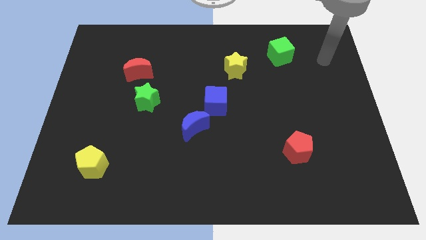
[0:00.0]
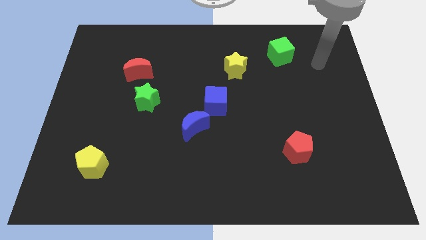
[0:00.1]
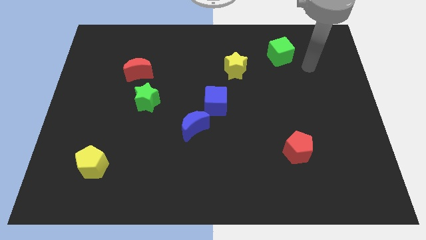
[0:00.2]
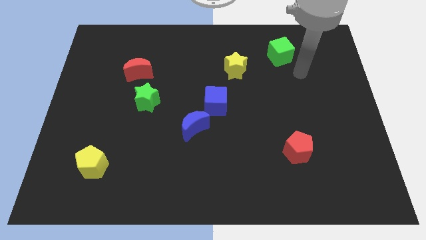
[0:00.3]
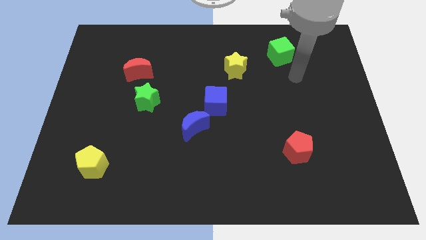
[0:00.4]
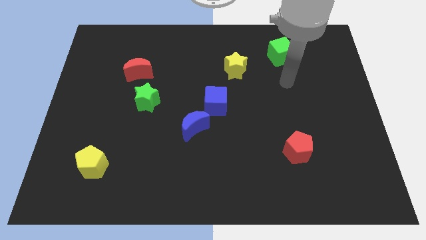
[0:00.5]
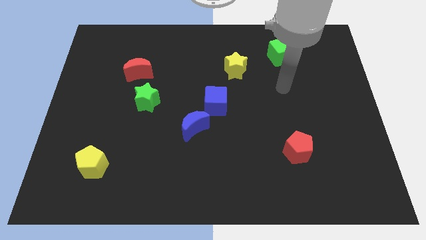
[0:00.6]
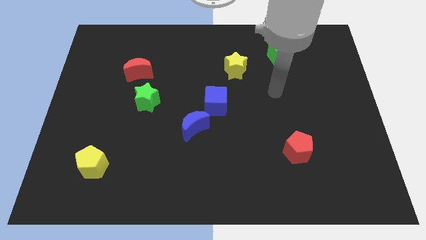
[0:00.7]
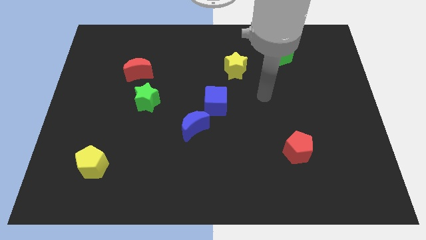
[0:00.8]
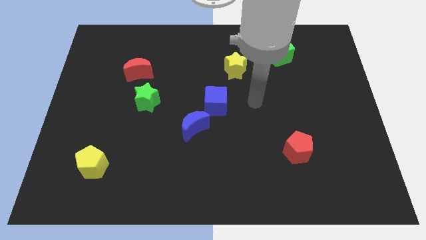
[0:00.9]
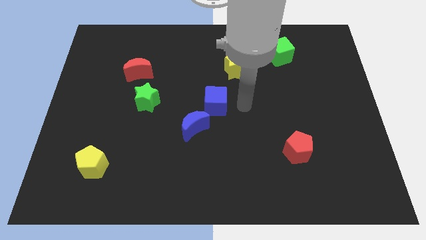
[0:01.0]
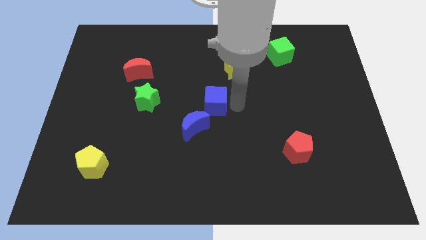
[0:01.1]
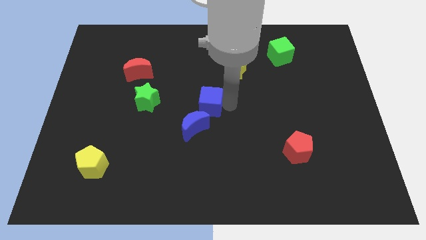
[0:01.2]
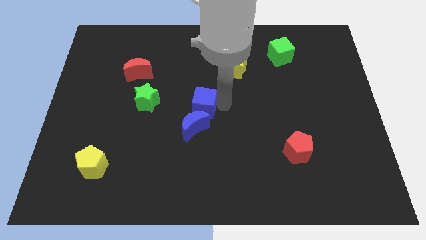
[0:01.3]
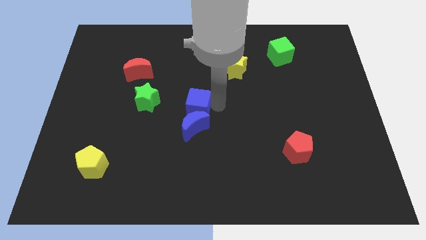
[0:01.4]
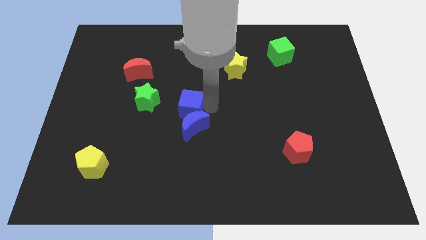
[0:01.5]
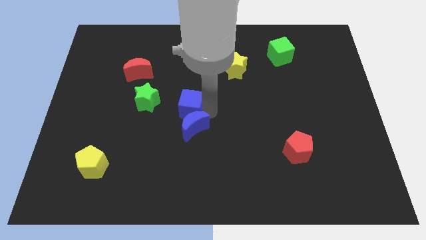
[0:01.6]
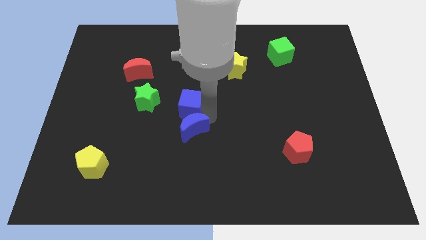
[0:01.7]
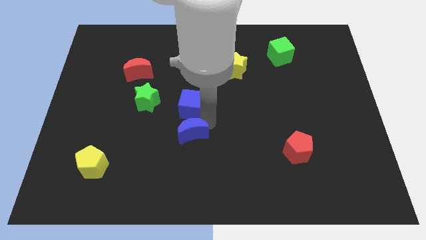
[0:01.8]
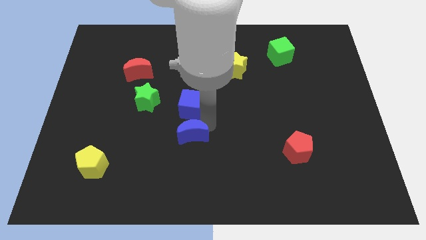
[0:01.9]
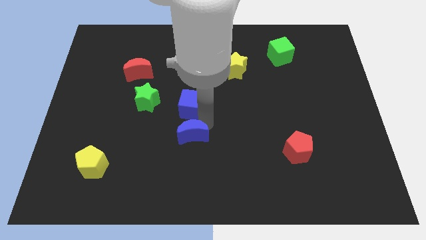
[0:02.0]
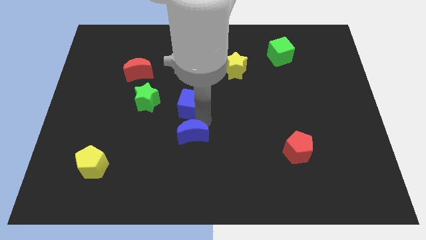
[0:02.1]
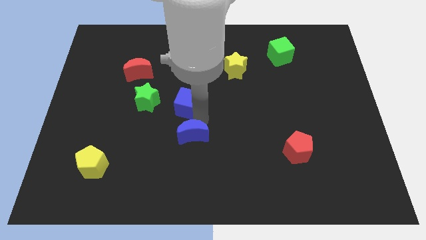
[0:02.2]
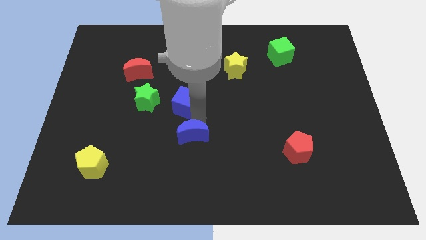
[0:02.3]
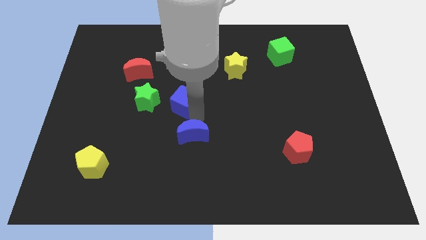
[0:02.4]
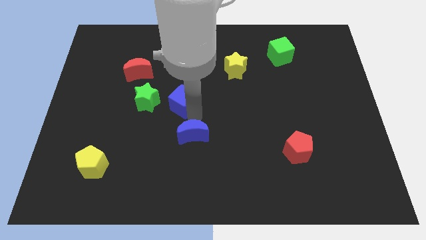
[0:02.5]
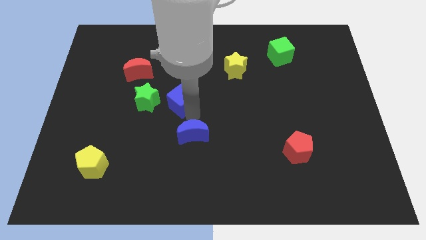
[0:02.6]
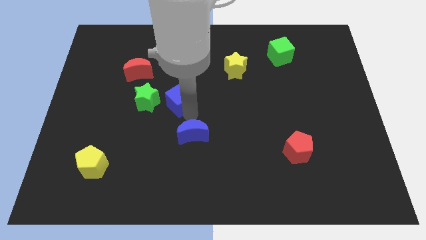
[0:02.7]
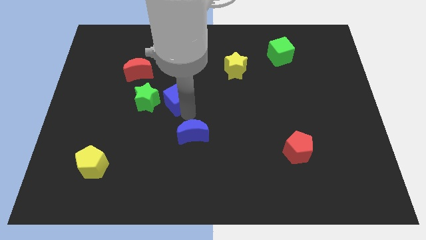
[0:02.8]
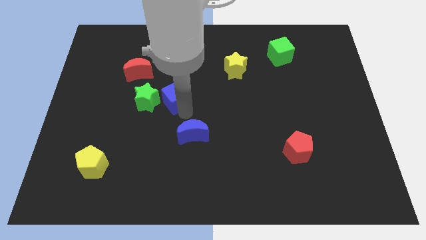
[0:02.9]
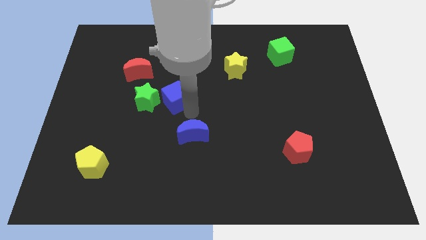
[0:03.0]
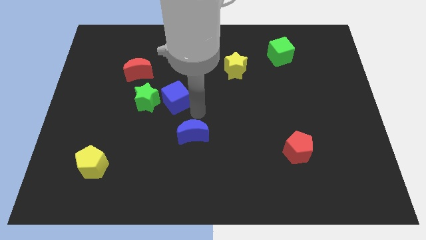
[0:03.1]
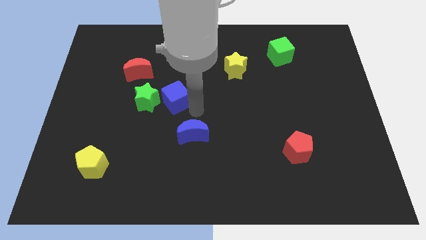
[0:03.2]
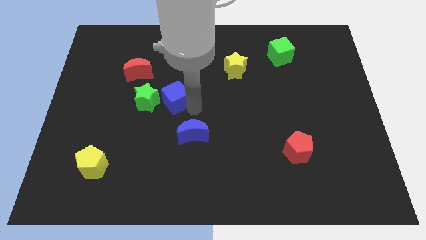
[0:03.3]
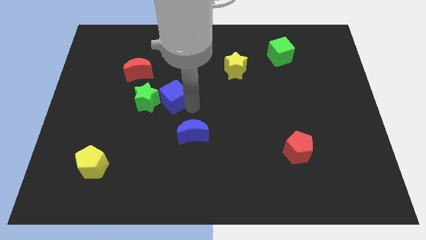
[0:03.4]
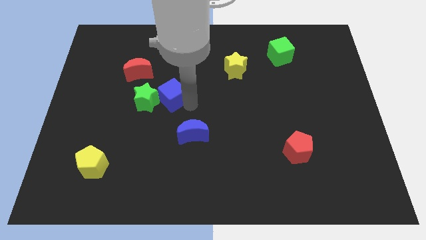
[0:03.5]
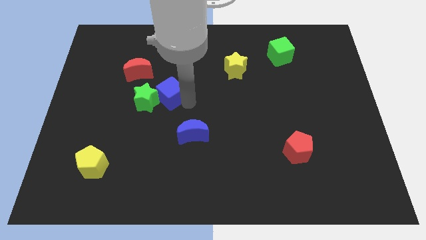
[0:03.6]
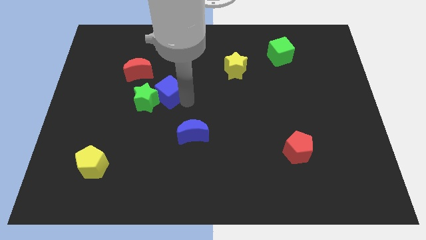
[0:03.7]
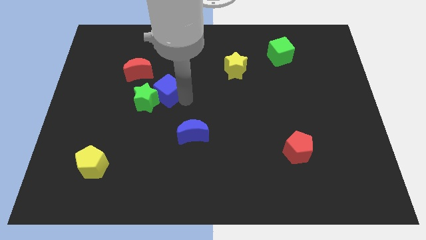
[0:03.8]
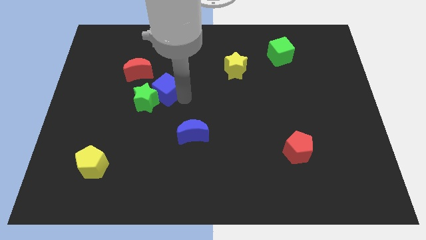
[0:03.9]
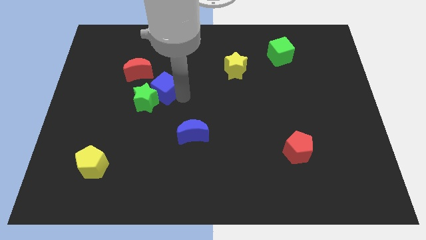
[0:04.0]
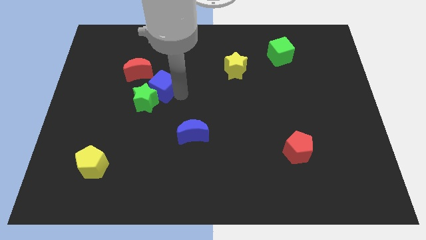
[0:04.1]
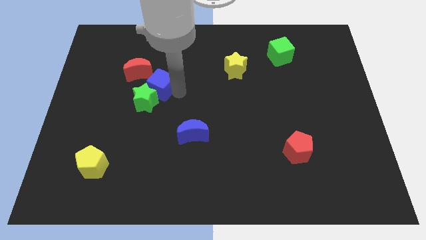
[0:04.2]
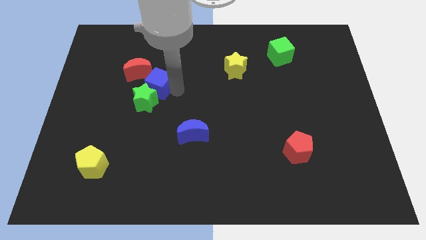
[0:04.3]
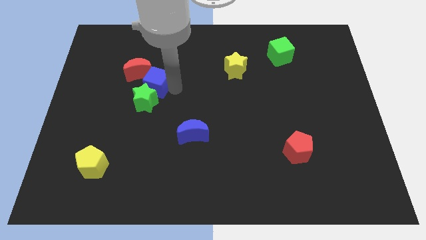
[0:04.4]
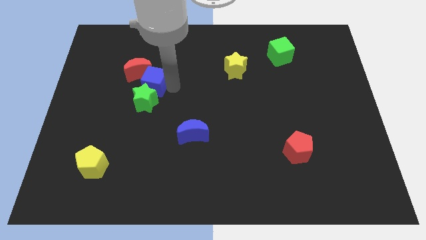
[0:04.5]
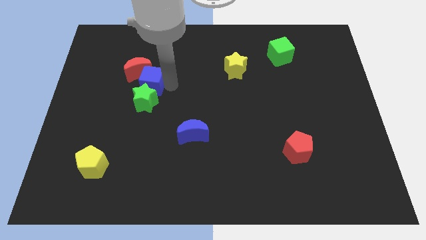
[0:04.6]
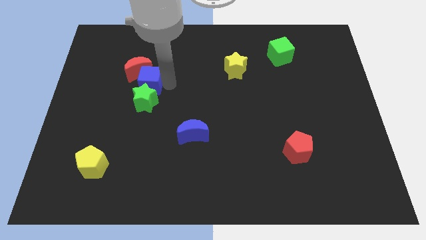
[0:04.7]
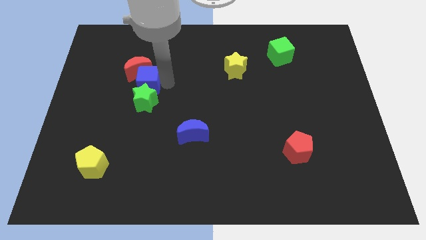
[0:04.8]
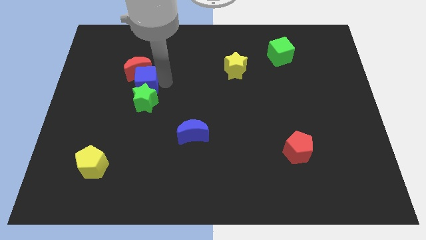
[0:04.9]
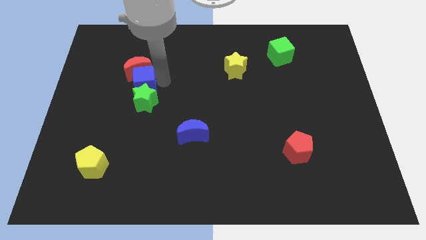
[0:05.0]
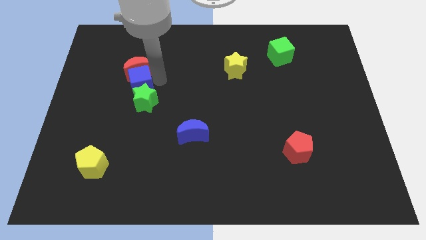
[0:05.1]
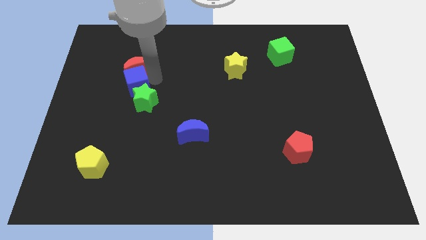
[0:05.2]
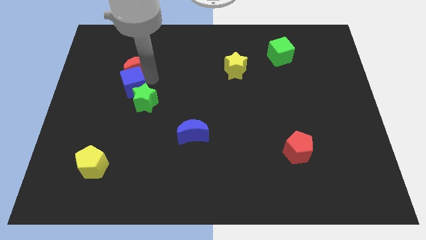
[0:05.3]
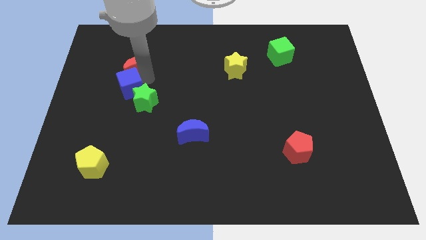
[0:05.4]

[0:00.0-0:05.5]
put the blue cube to the left side of the green star

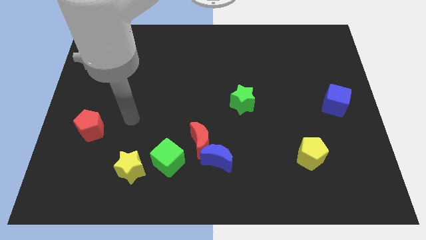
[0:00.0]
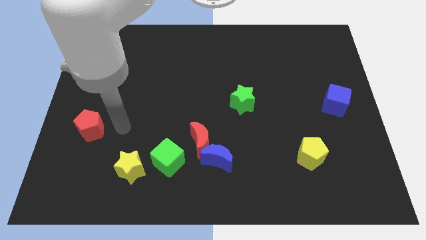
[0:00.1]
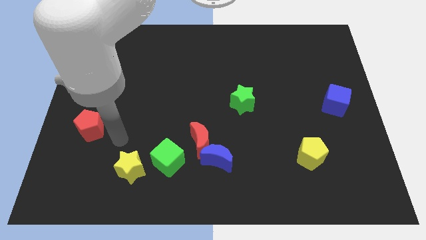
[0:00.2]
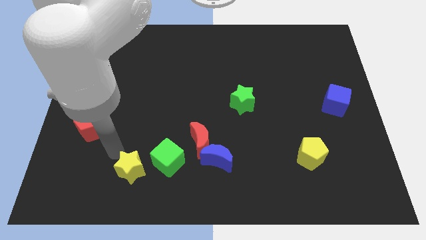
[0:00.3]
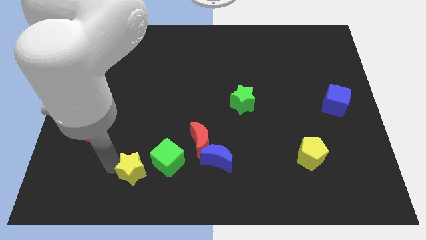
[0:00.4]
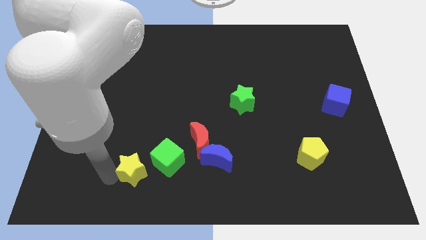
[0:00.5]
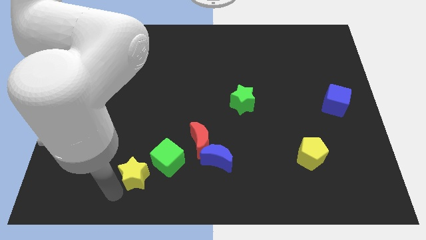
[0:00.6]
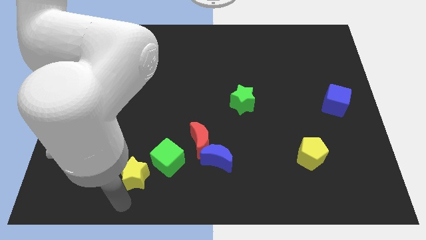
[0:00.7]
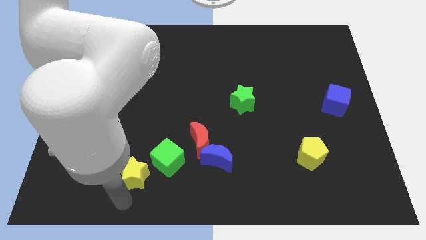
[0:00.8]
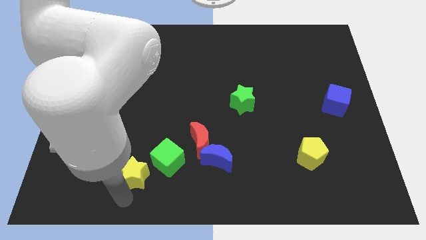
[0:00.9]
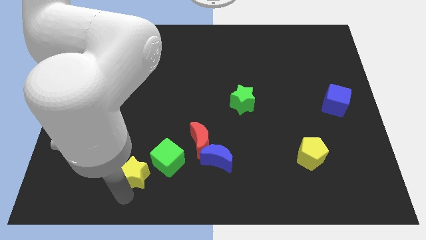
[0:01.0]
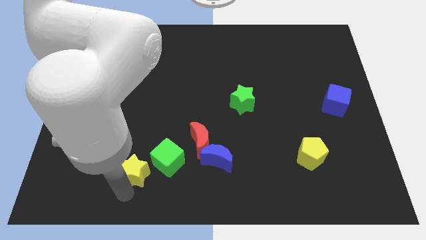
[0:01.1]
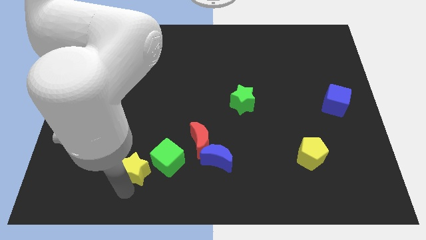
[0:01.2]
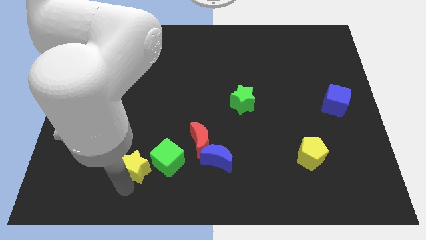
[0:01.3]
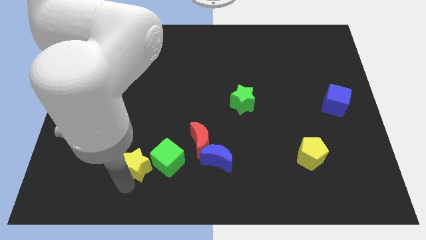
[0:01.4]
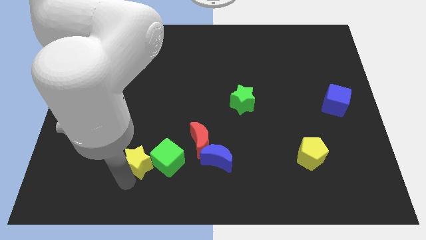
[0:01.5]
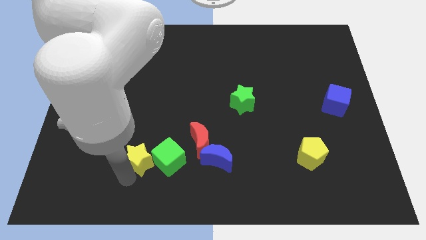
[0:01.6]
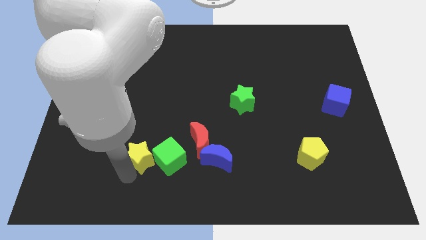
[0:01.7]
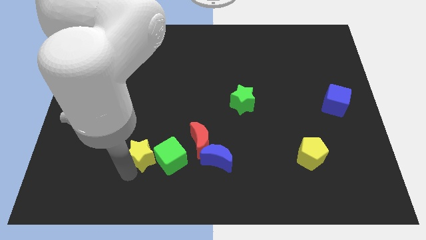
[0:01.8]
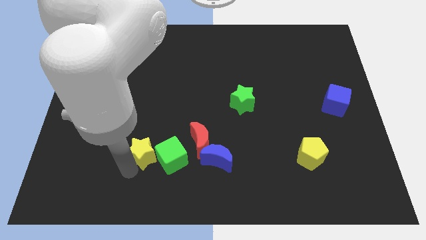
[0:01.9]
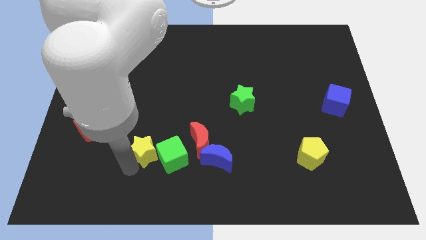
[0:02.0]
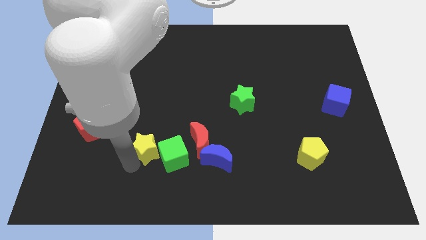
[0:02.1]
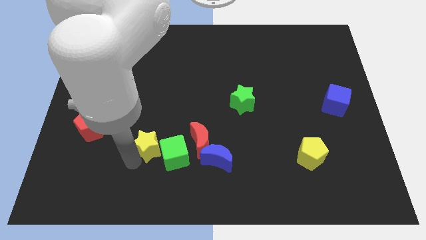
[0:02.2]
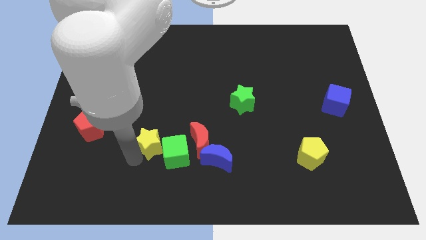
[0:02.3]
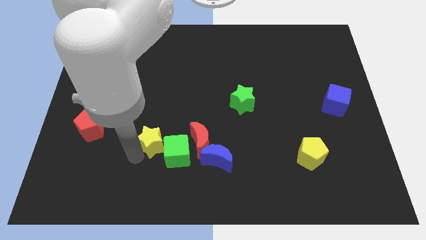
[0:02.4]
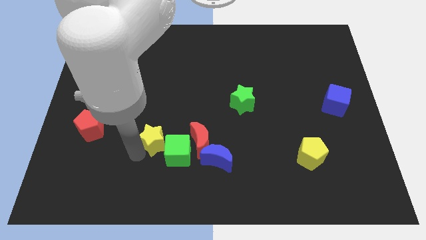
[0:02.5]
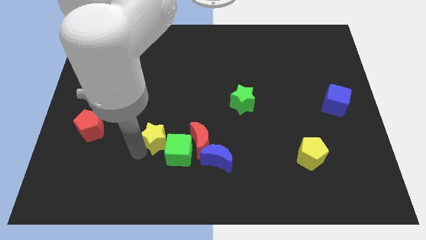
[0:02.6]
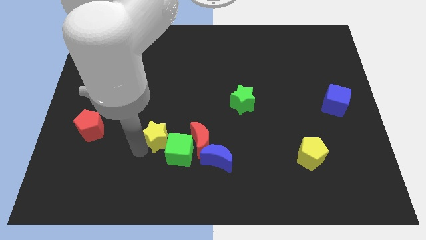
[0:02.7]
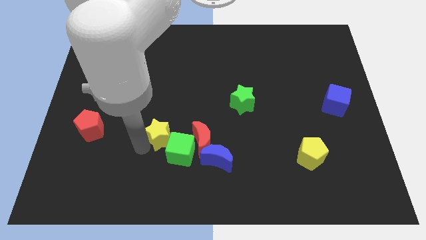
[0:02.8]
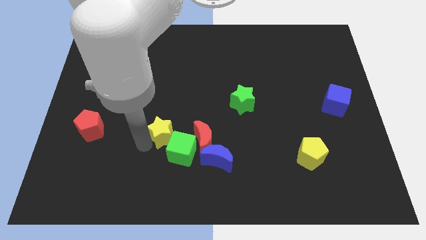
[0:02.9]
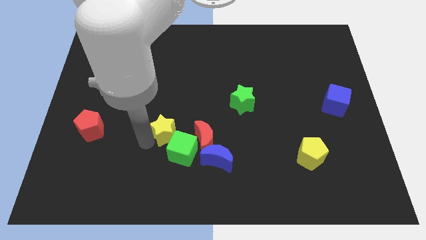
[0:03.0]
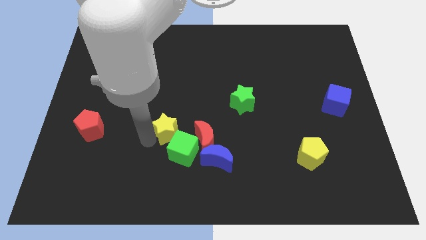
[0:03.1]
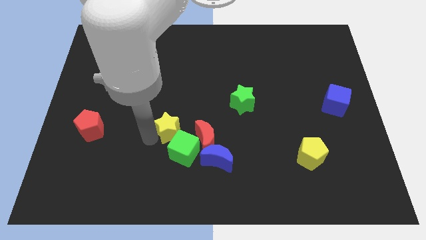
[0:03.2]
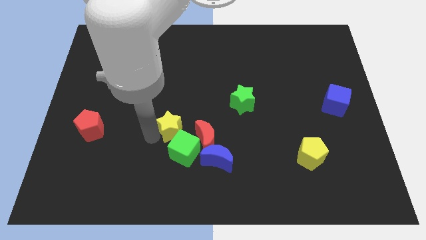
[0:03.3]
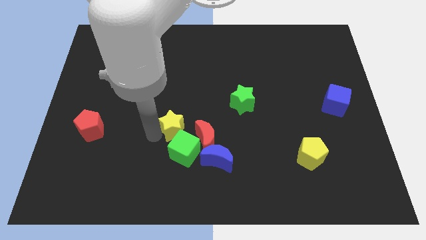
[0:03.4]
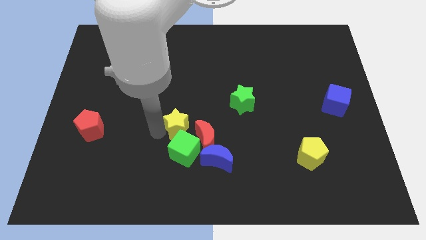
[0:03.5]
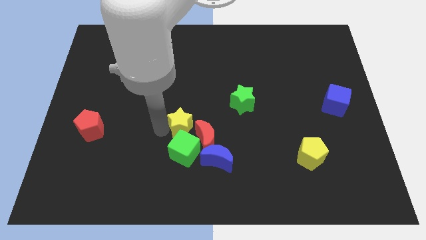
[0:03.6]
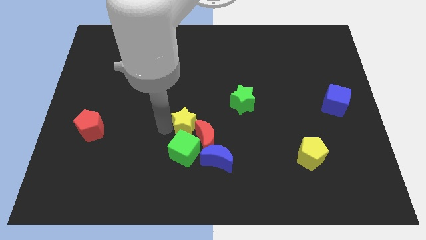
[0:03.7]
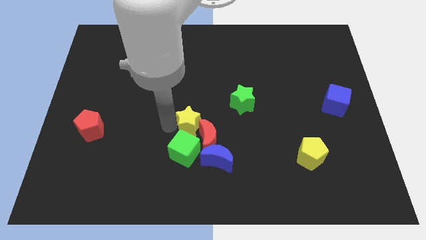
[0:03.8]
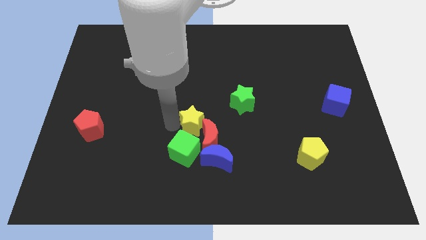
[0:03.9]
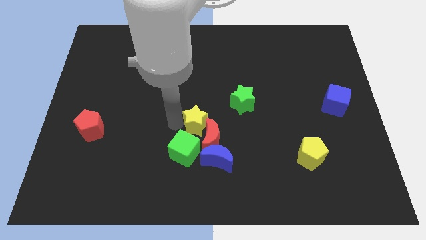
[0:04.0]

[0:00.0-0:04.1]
push the yellow star to the bottom left side of the green star
